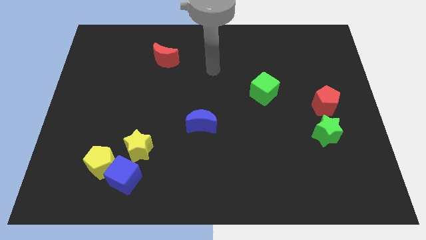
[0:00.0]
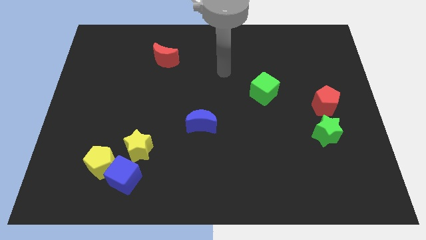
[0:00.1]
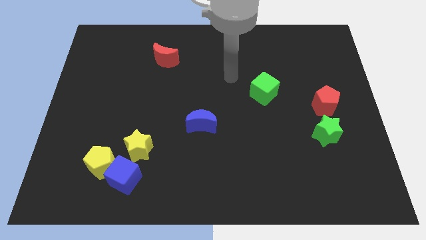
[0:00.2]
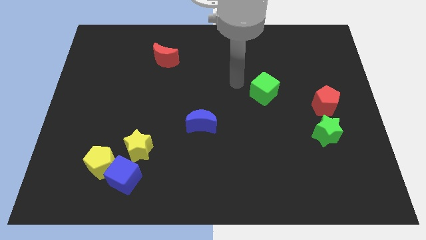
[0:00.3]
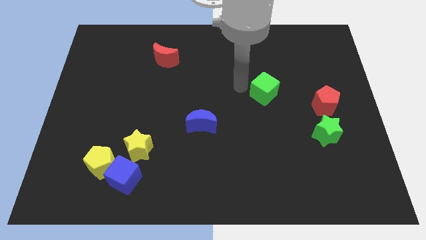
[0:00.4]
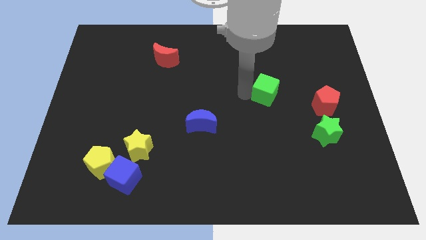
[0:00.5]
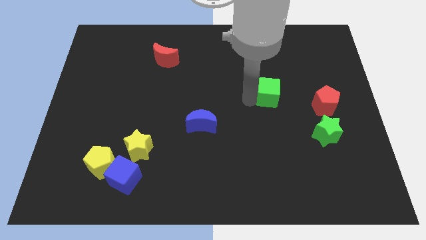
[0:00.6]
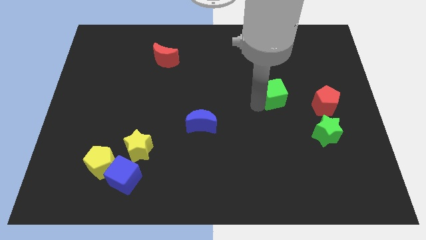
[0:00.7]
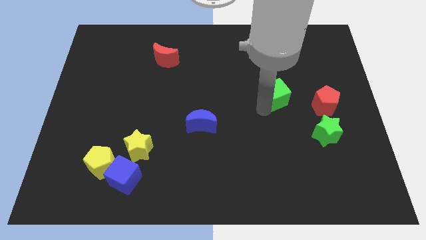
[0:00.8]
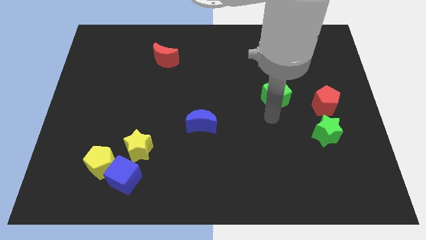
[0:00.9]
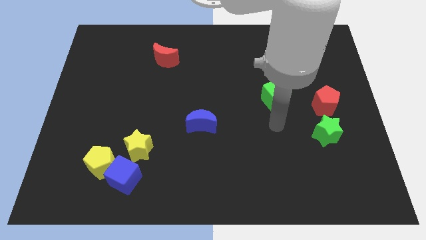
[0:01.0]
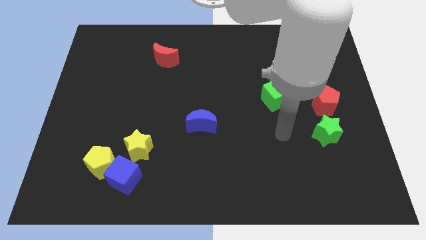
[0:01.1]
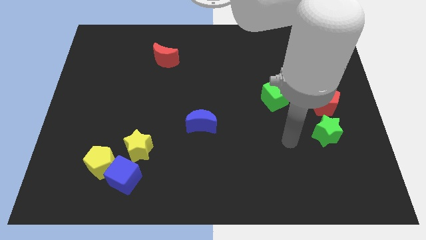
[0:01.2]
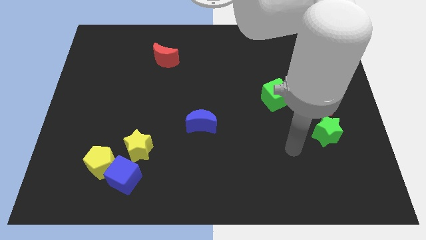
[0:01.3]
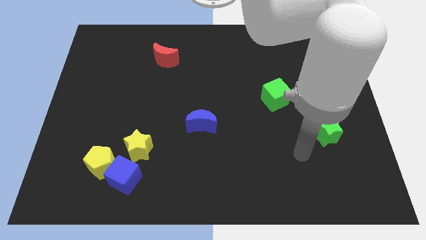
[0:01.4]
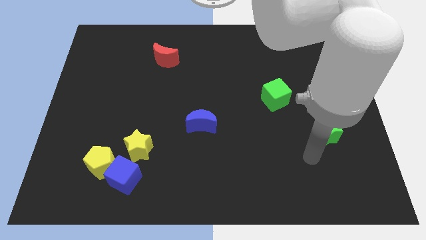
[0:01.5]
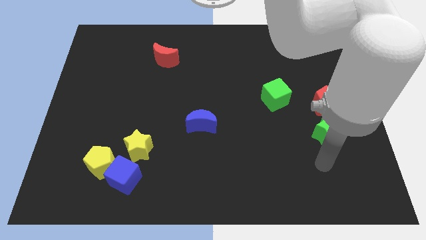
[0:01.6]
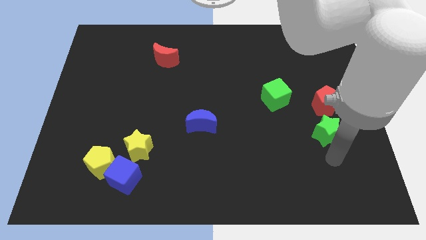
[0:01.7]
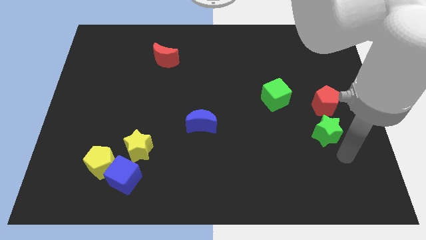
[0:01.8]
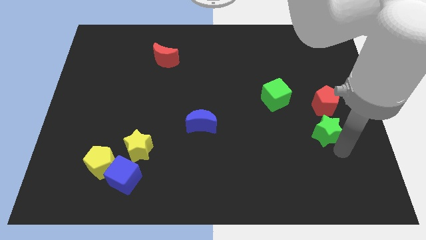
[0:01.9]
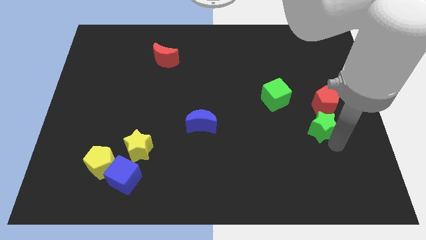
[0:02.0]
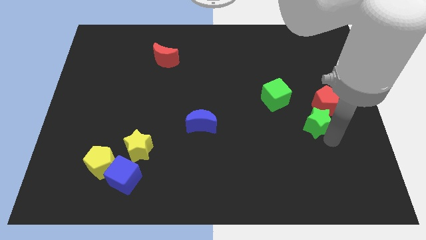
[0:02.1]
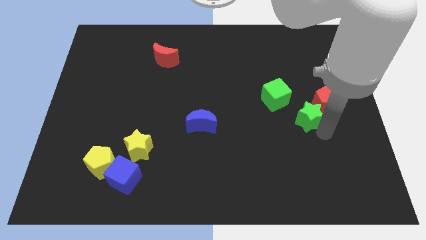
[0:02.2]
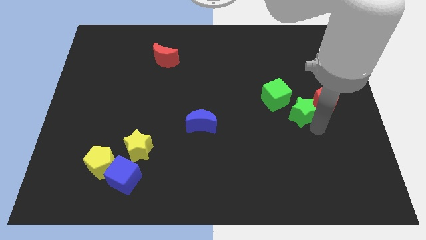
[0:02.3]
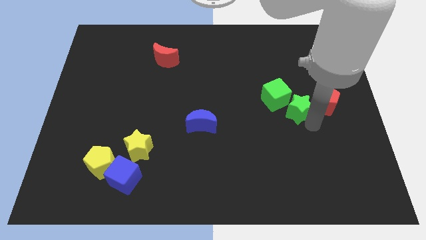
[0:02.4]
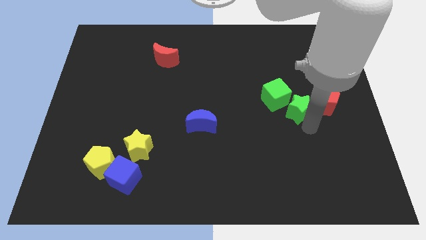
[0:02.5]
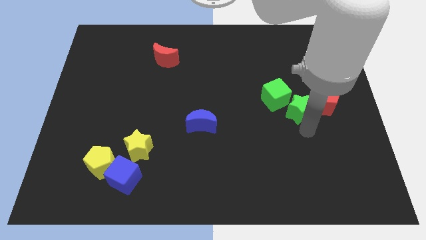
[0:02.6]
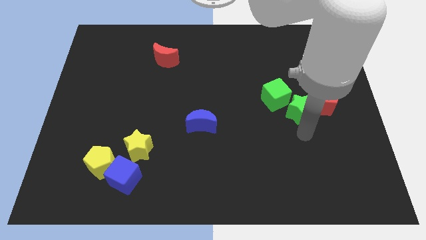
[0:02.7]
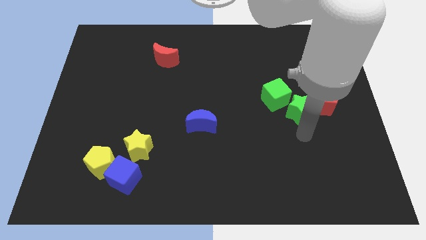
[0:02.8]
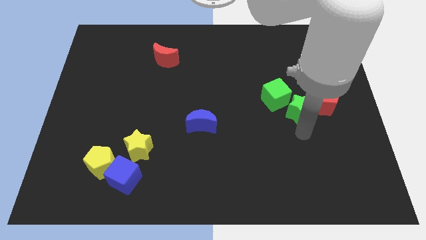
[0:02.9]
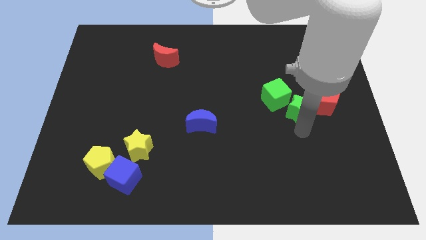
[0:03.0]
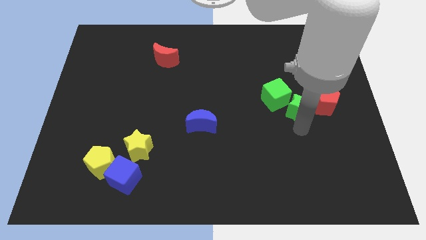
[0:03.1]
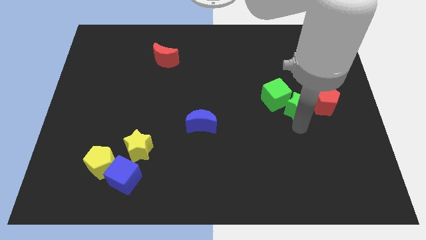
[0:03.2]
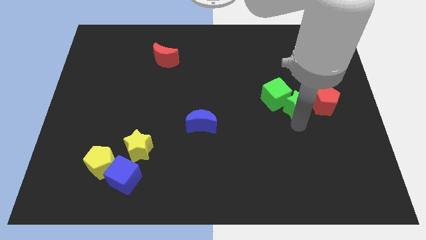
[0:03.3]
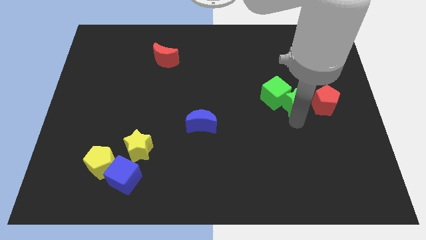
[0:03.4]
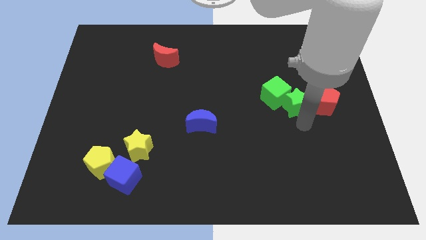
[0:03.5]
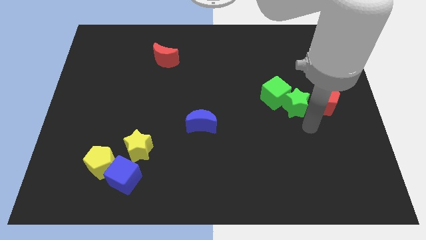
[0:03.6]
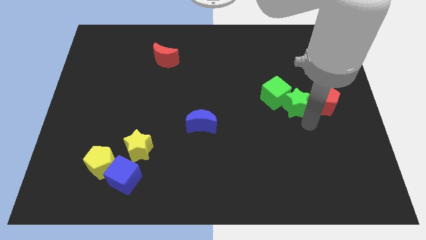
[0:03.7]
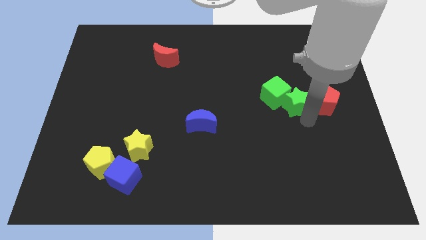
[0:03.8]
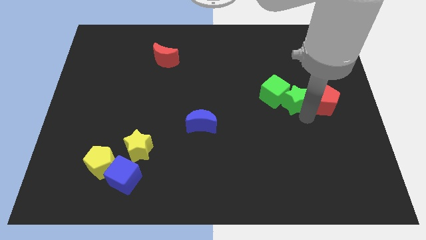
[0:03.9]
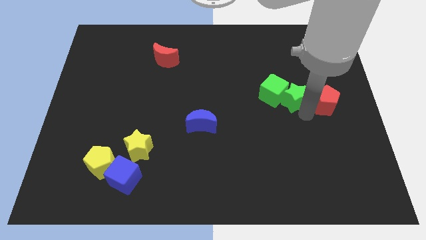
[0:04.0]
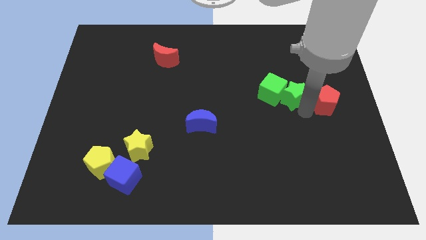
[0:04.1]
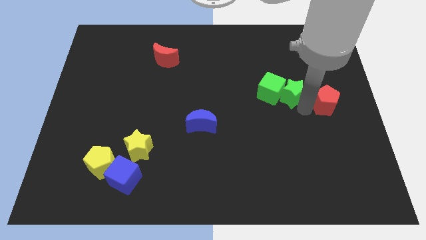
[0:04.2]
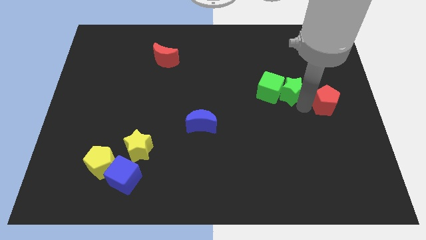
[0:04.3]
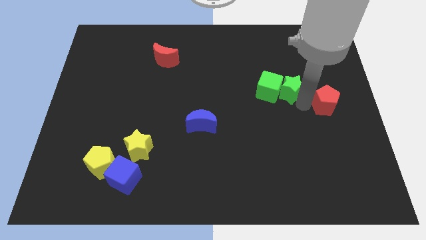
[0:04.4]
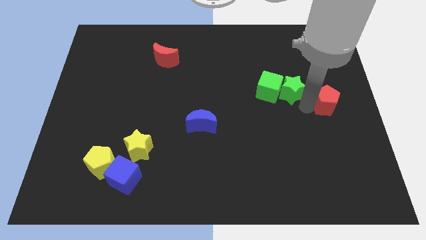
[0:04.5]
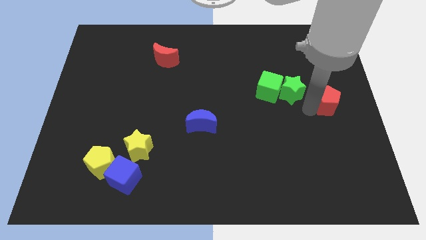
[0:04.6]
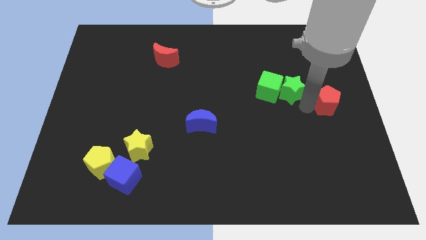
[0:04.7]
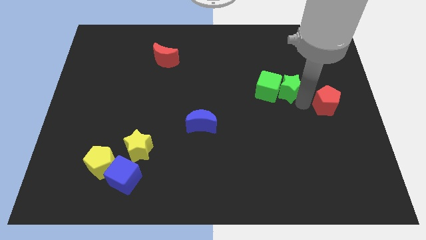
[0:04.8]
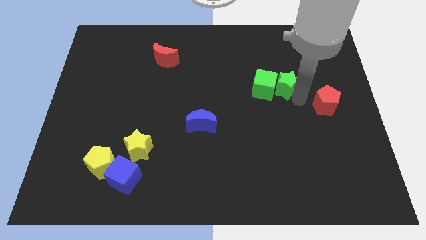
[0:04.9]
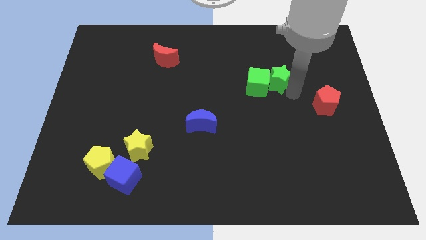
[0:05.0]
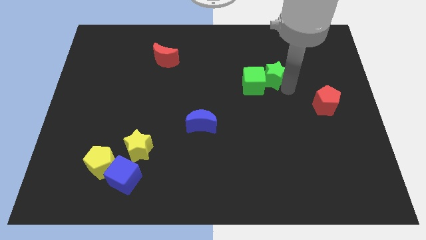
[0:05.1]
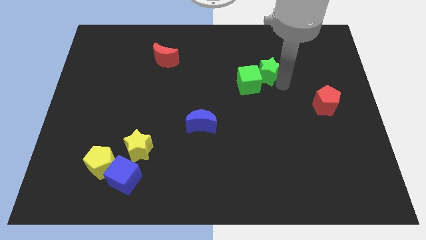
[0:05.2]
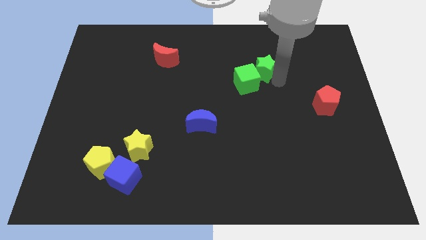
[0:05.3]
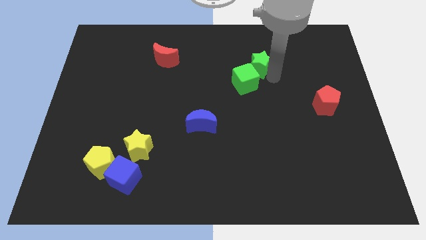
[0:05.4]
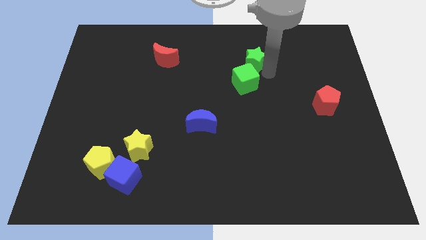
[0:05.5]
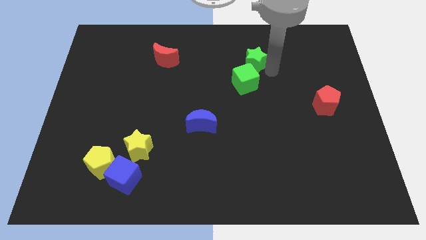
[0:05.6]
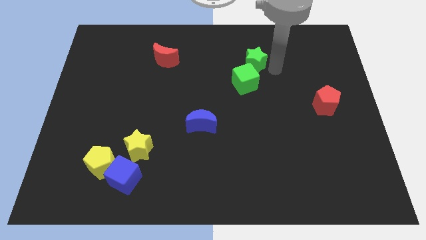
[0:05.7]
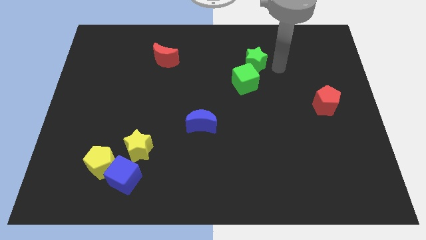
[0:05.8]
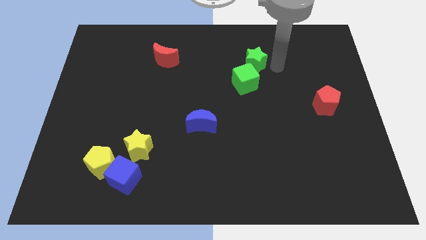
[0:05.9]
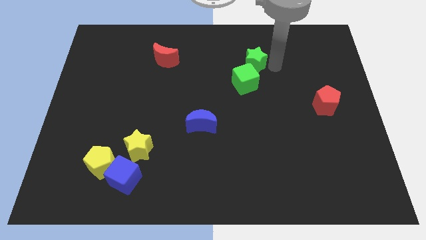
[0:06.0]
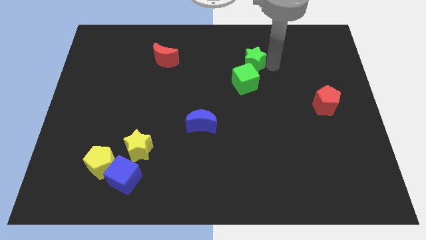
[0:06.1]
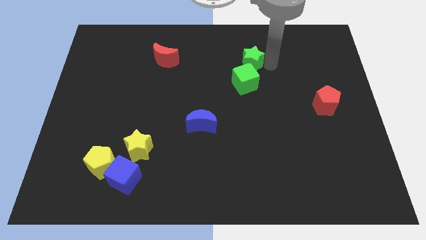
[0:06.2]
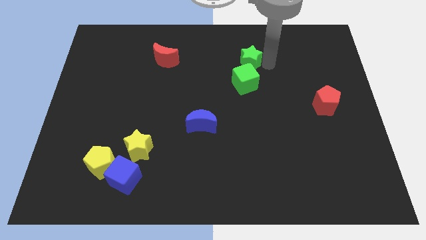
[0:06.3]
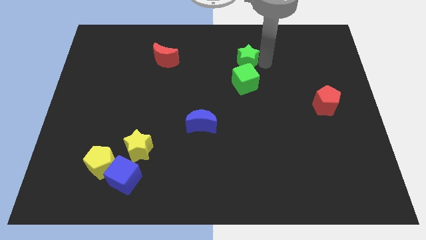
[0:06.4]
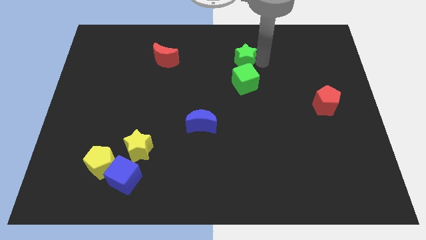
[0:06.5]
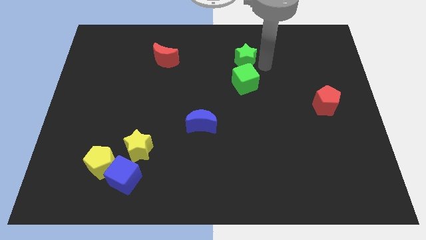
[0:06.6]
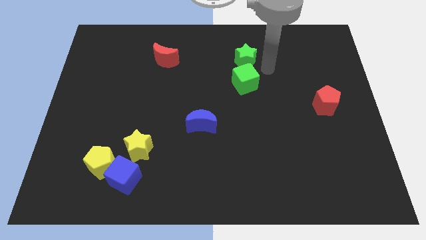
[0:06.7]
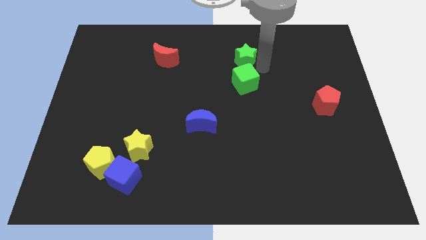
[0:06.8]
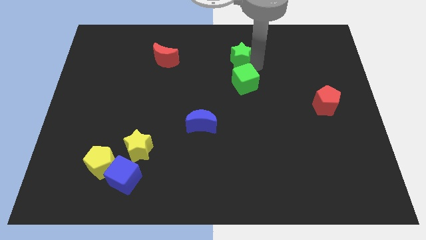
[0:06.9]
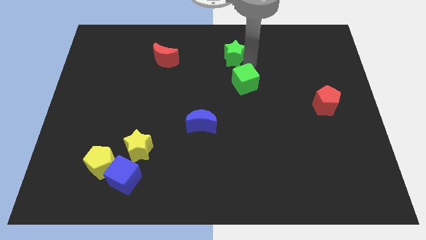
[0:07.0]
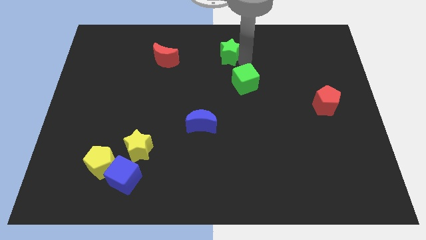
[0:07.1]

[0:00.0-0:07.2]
push the green star to the top
